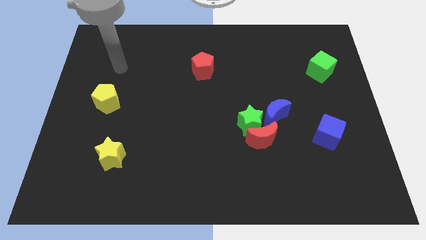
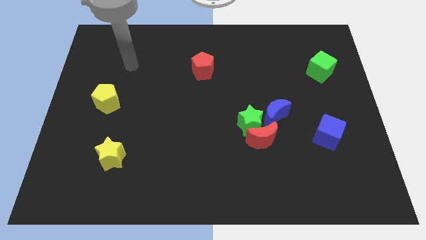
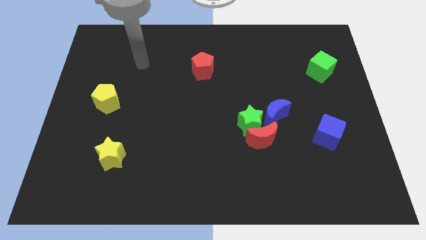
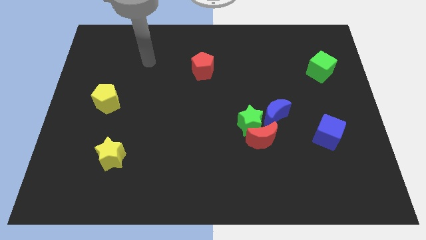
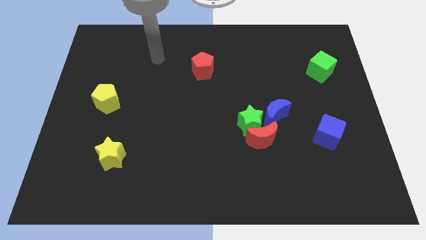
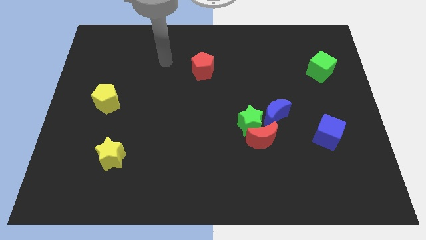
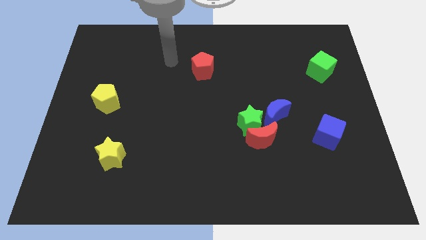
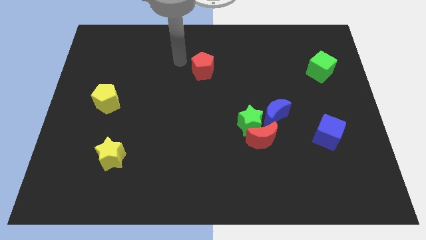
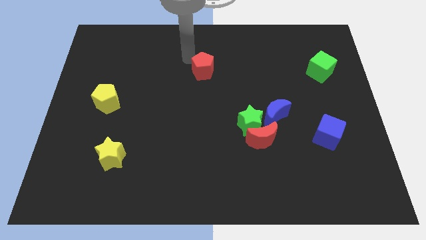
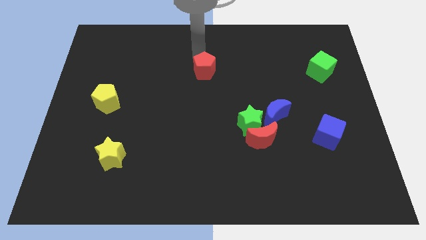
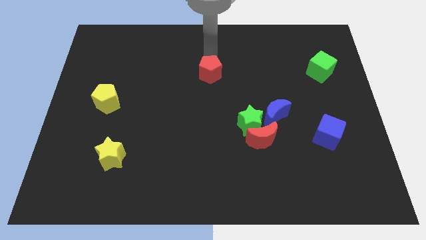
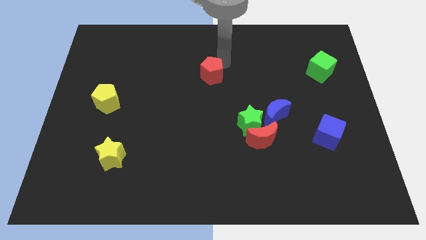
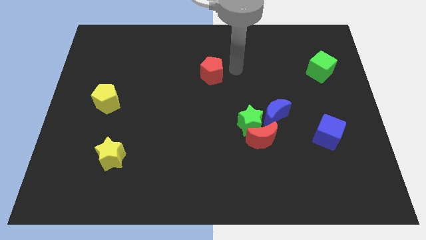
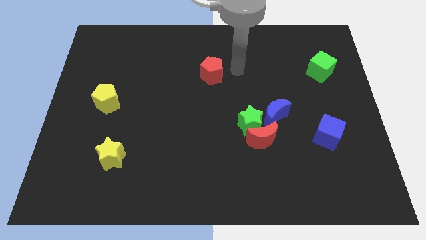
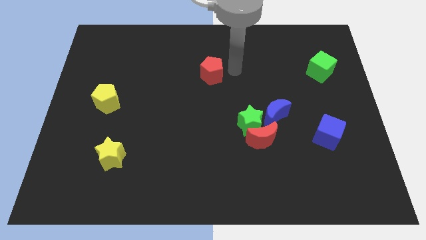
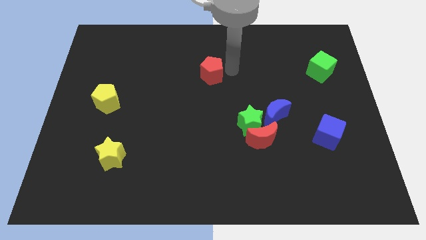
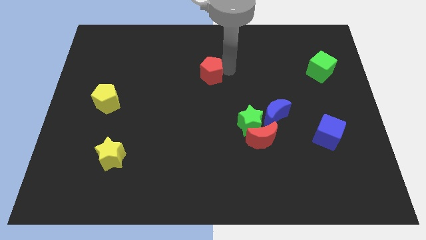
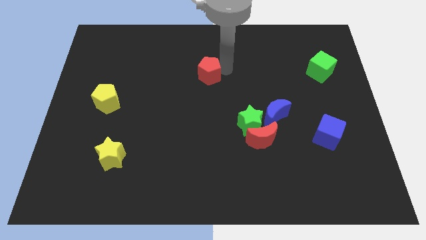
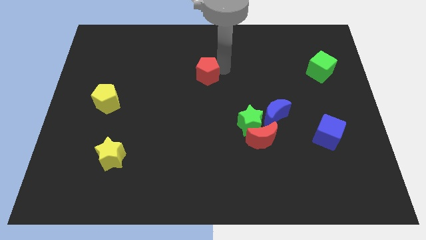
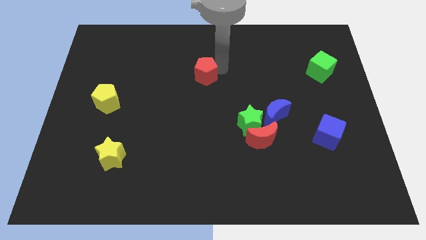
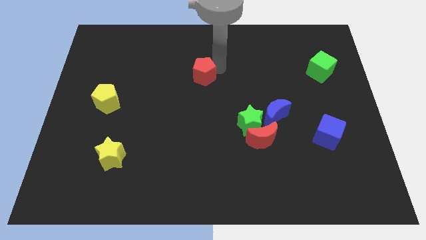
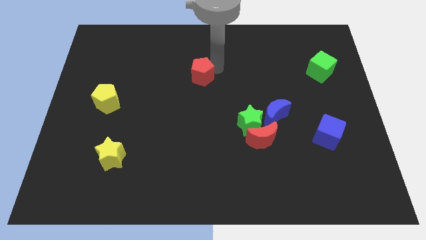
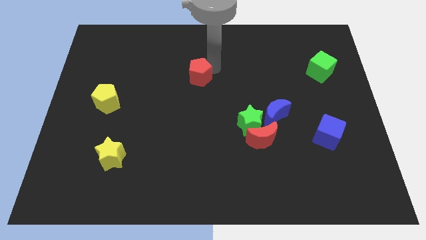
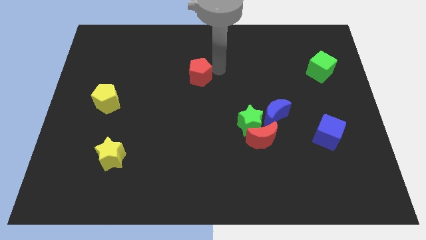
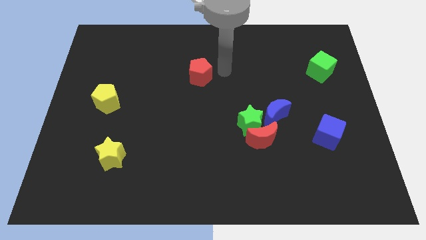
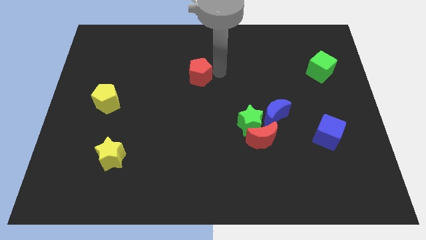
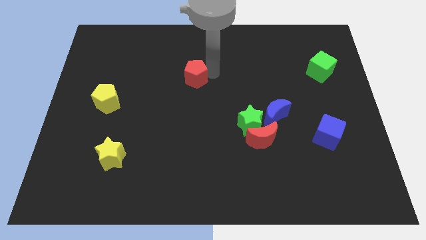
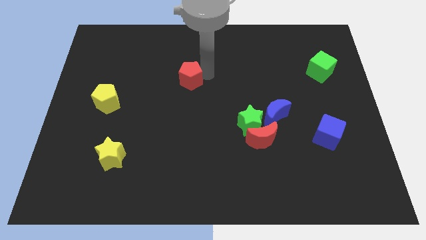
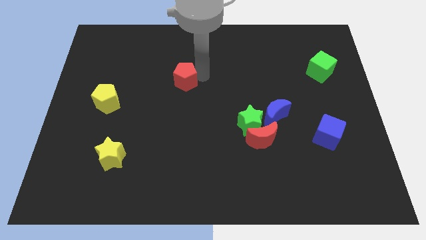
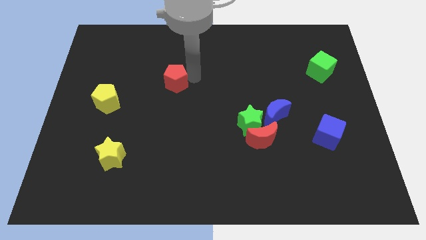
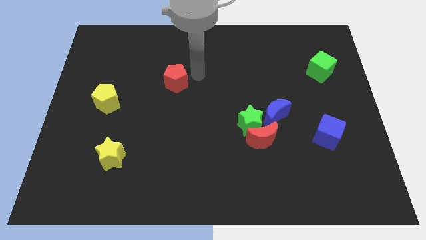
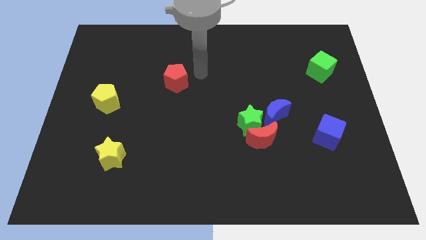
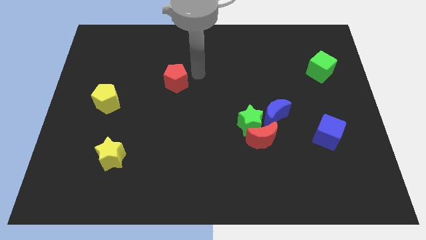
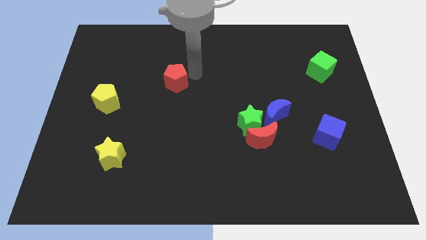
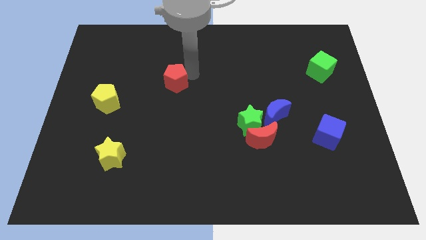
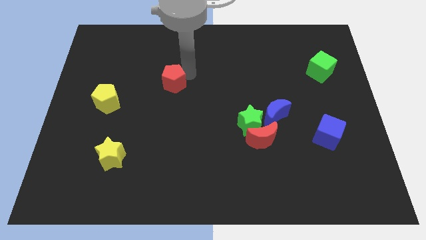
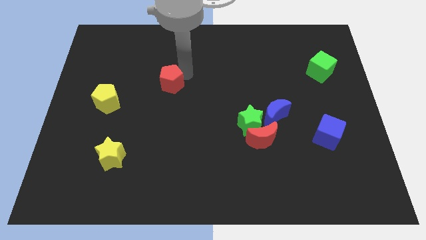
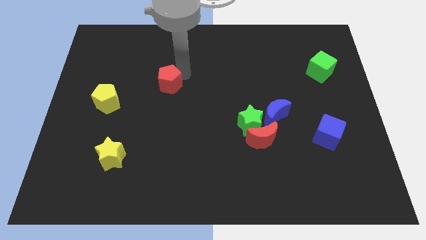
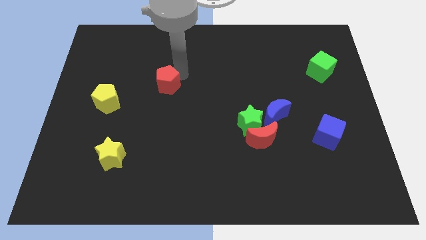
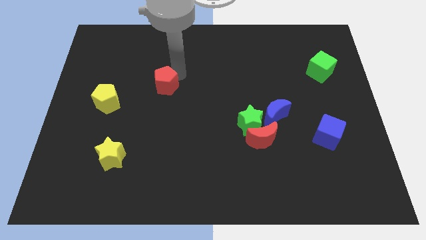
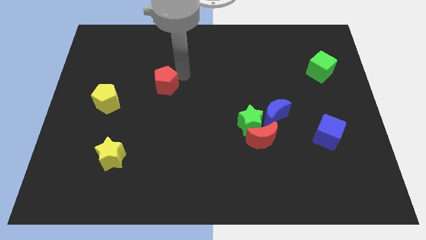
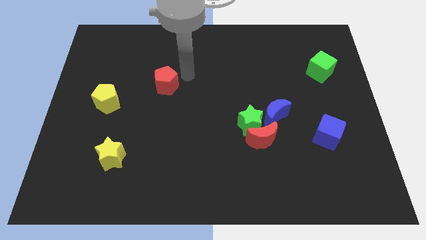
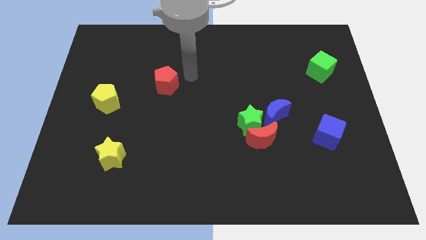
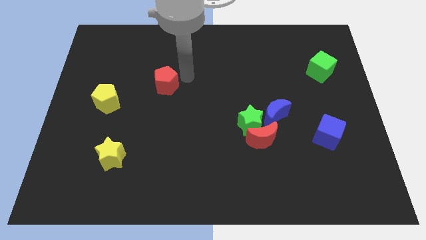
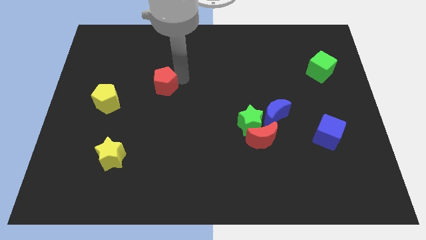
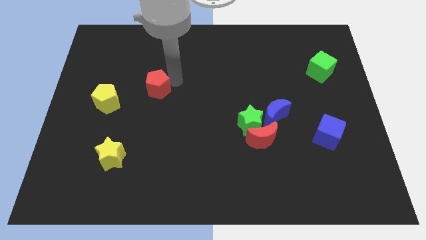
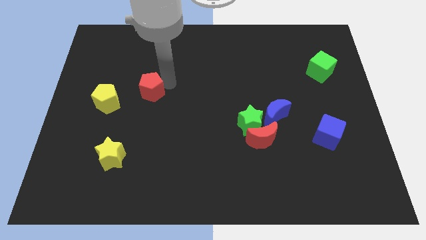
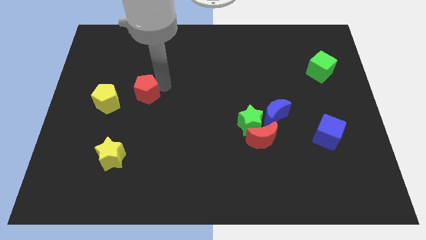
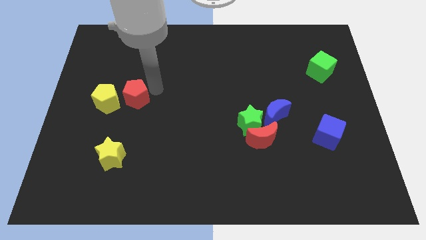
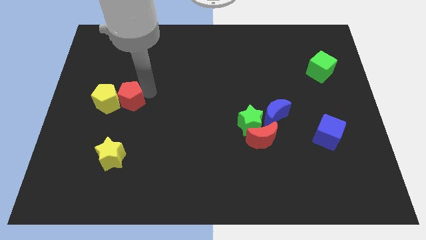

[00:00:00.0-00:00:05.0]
slide the red pentagon next to the yellow pentagon

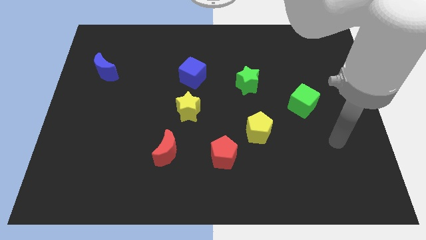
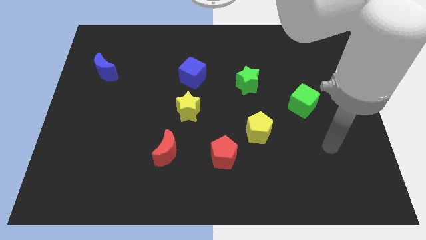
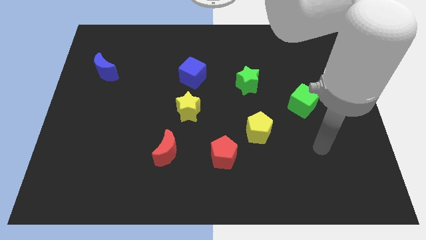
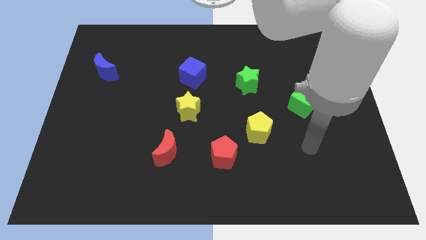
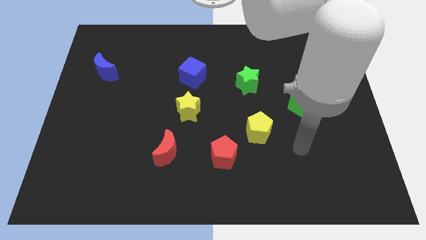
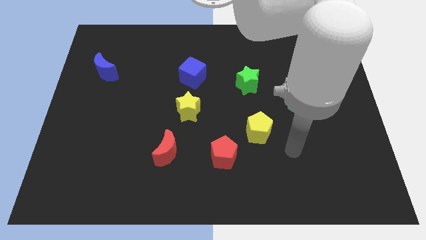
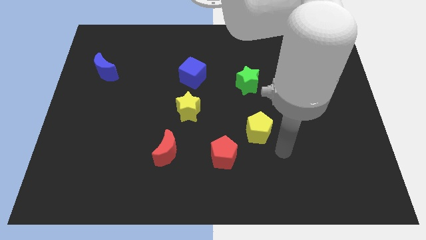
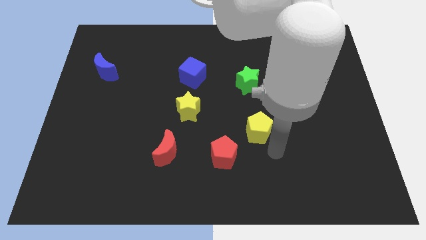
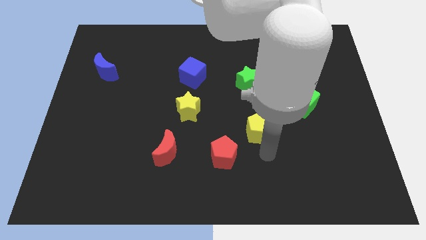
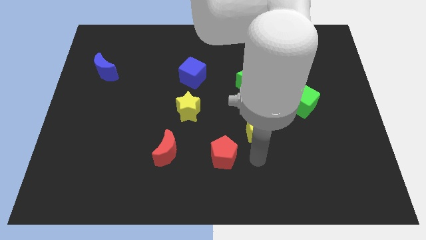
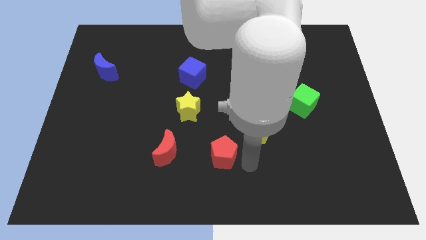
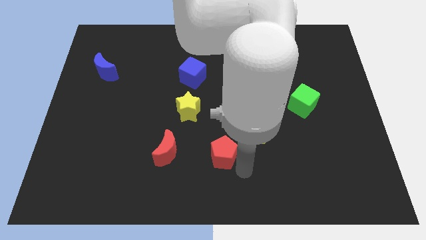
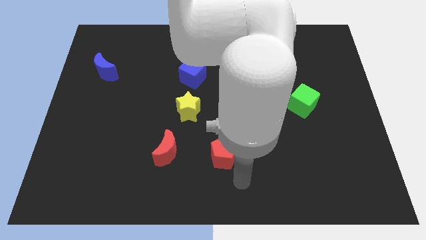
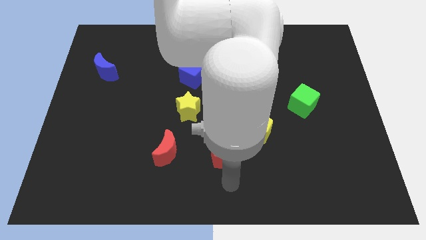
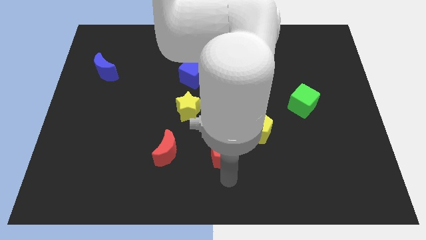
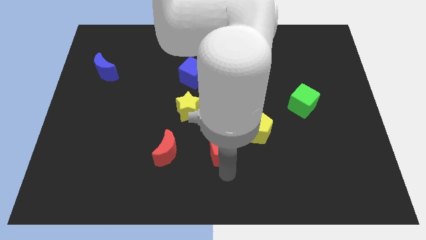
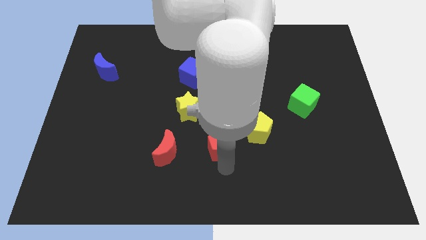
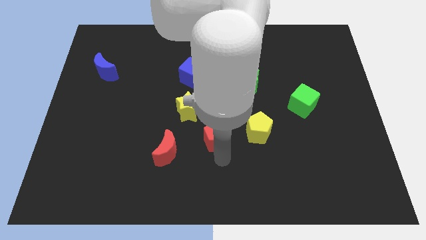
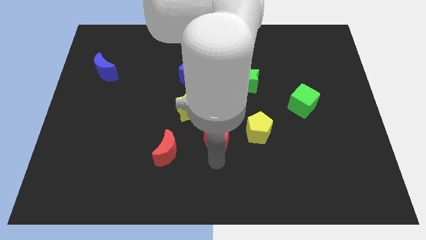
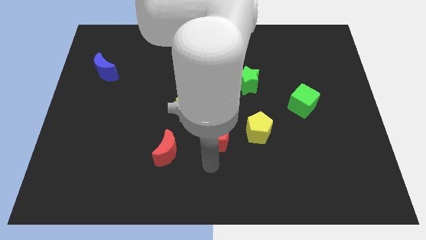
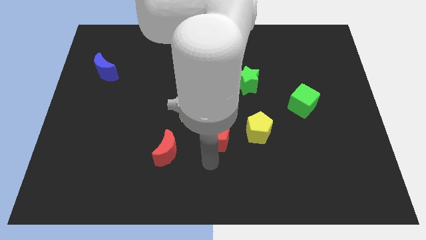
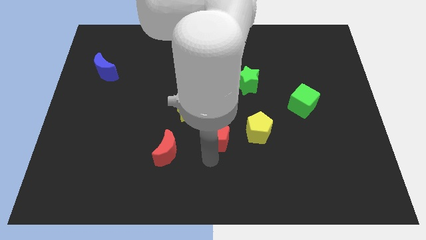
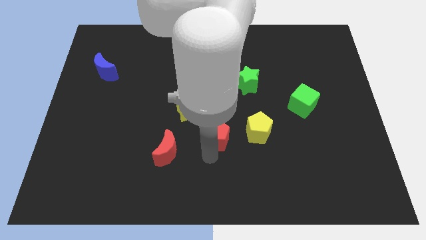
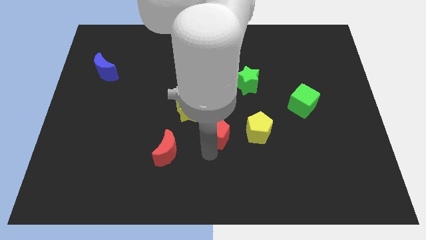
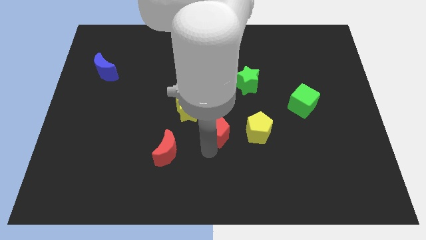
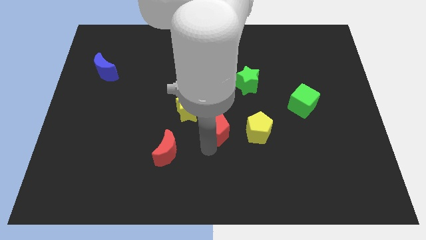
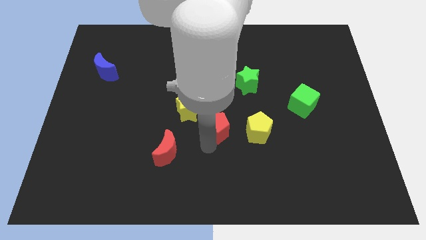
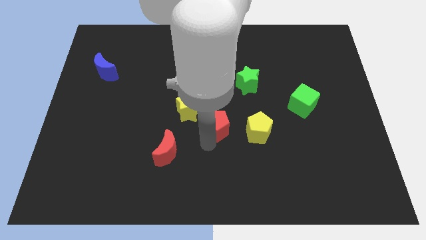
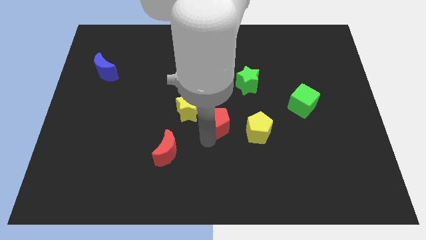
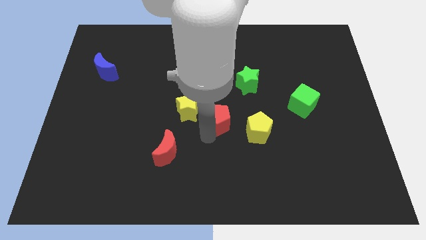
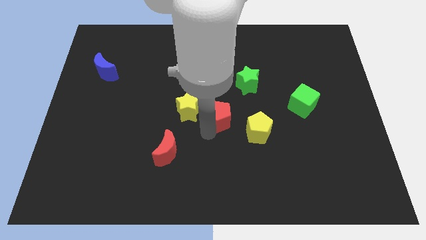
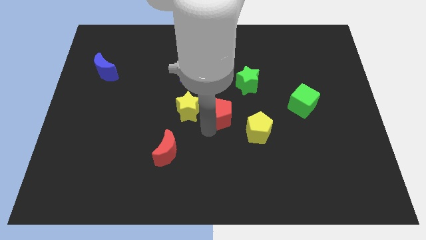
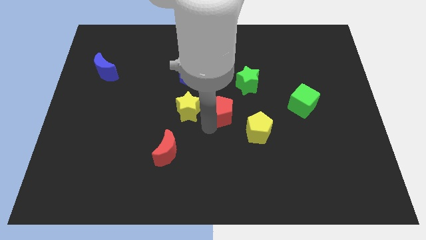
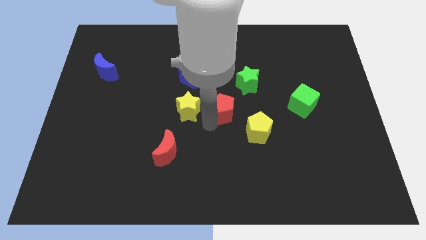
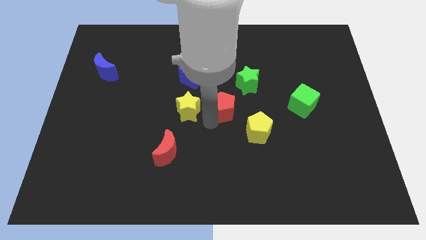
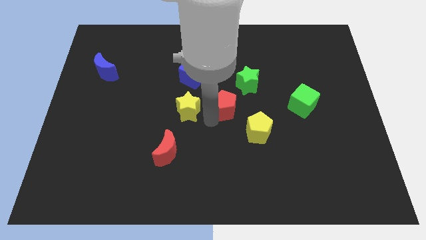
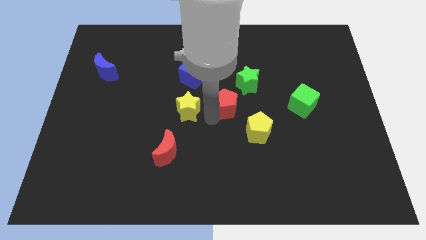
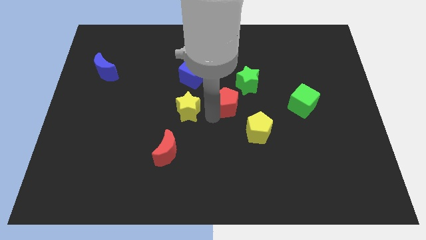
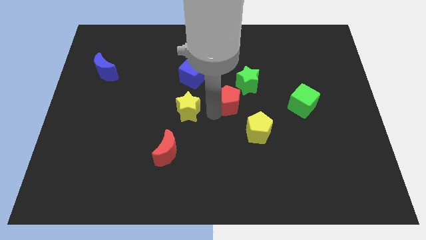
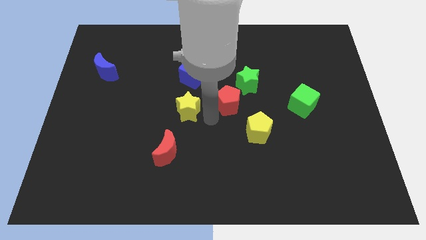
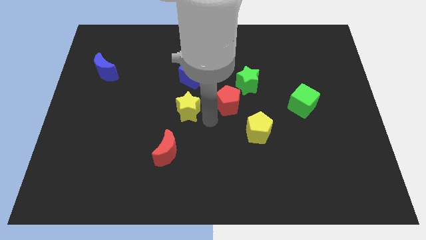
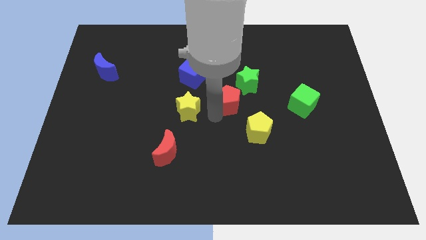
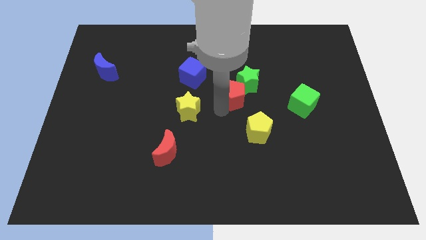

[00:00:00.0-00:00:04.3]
slide the red pentagon to the green star
